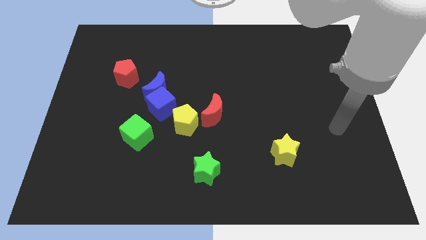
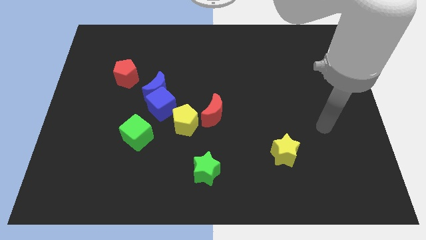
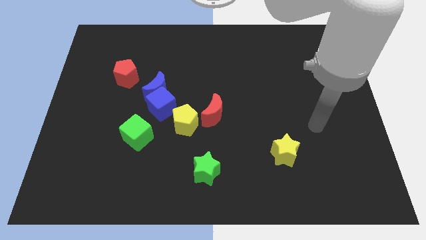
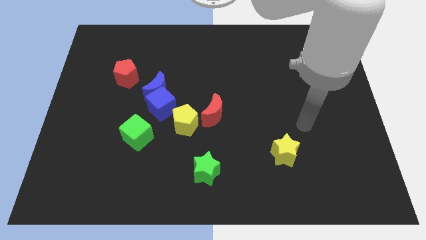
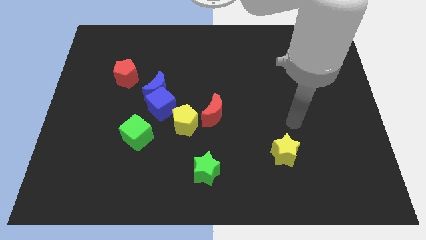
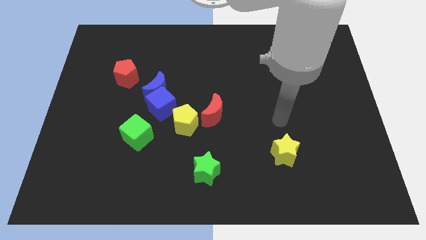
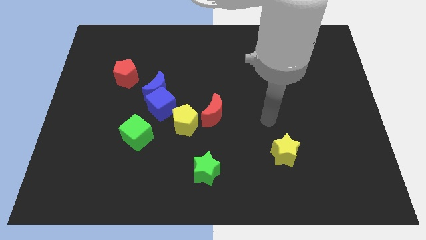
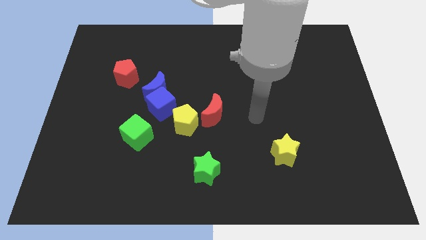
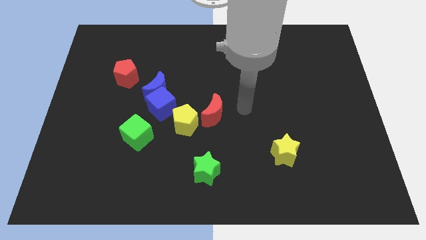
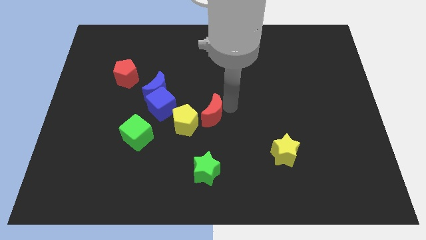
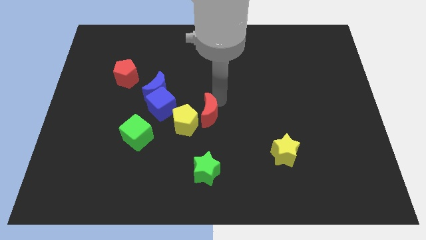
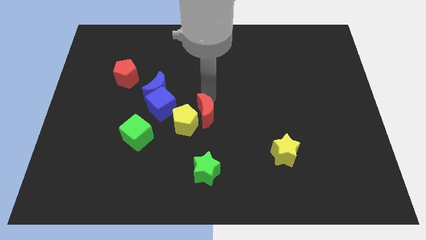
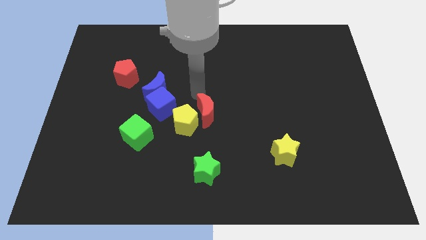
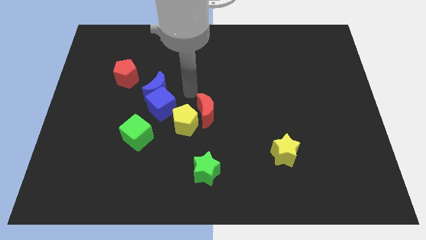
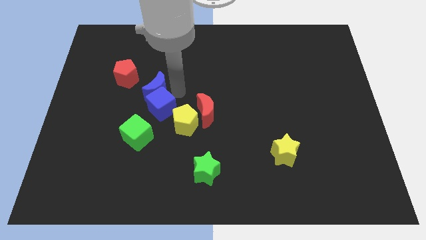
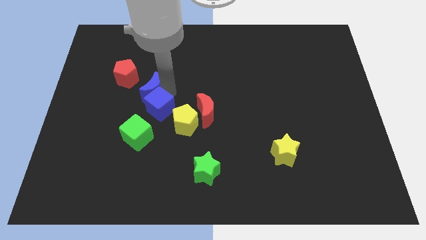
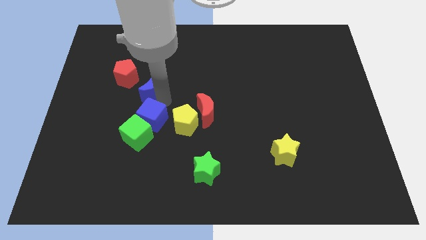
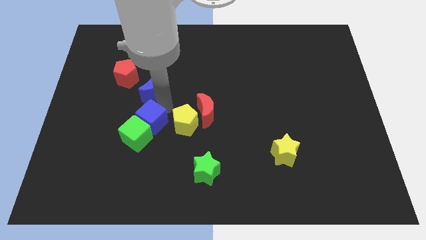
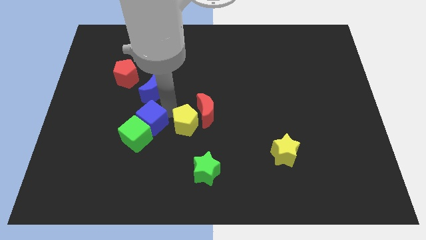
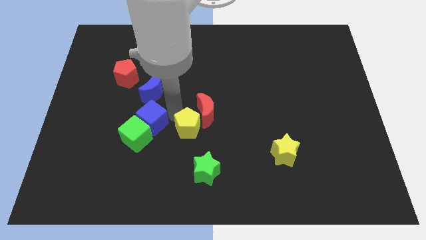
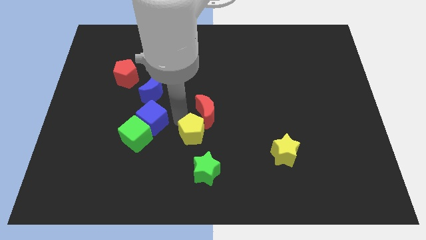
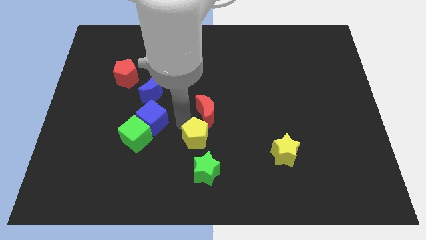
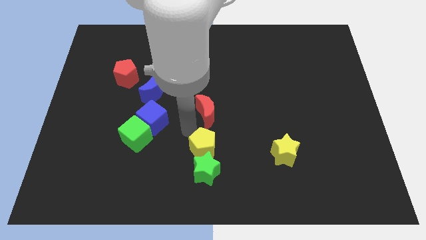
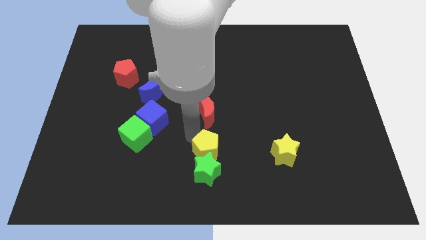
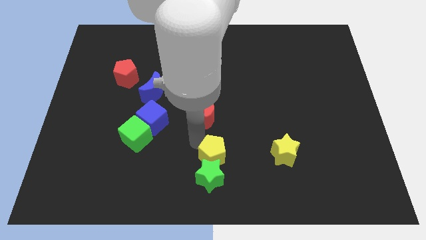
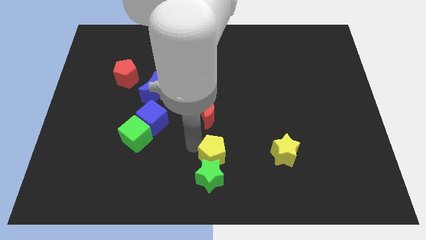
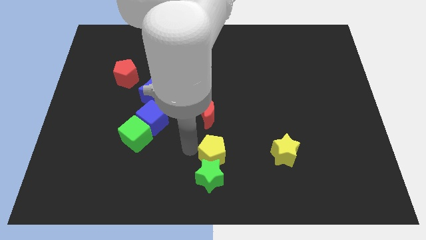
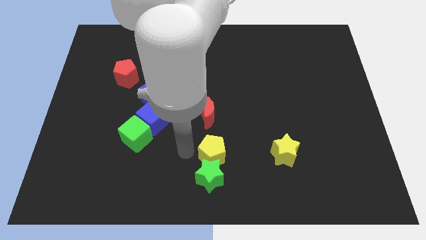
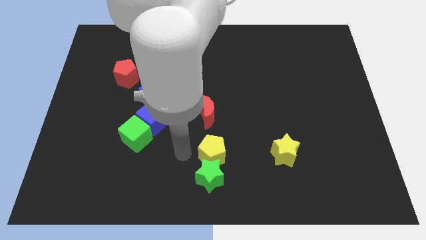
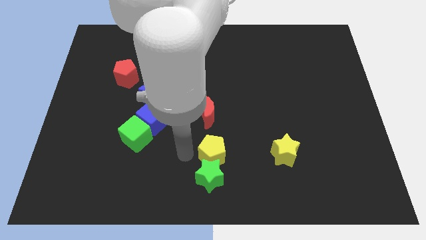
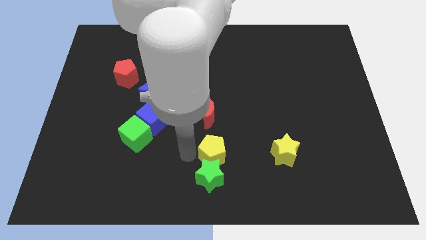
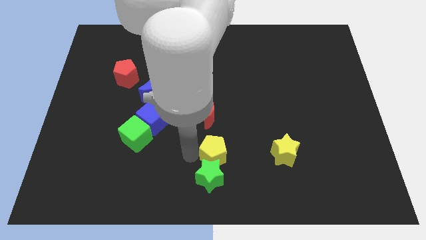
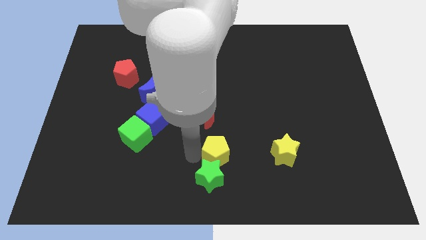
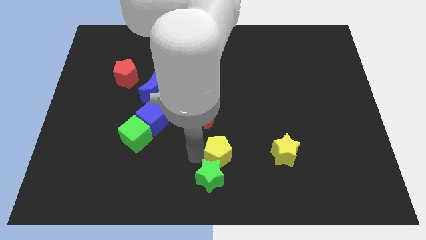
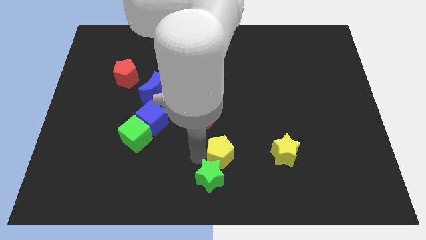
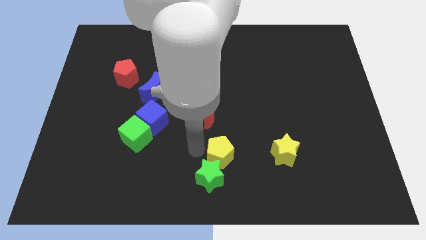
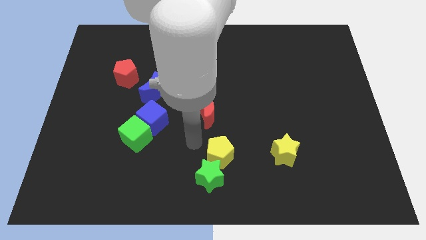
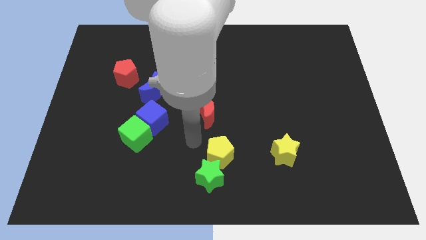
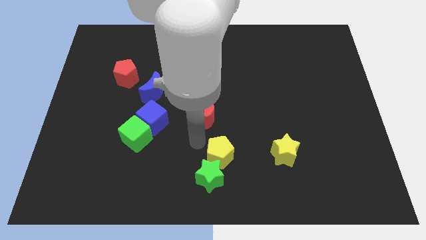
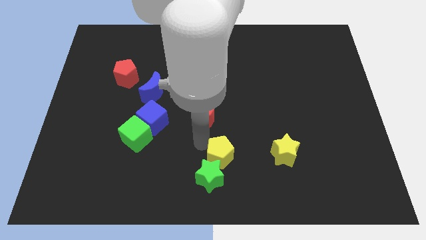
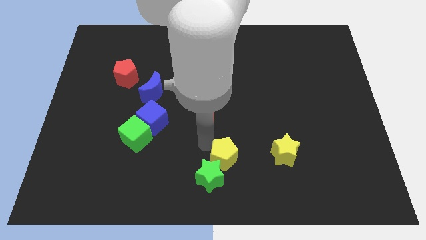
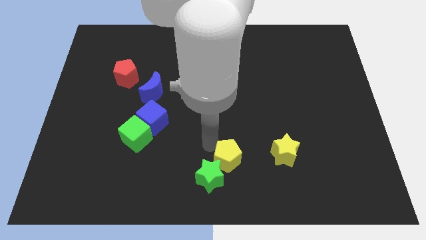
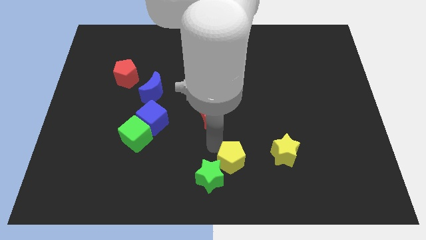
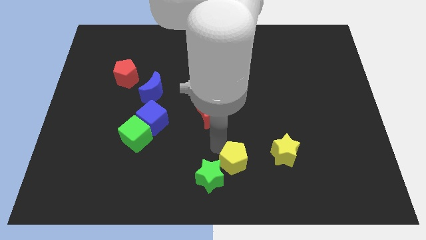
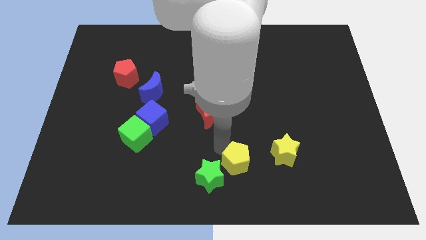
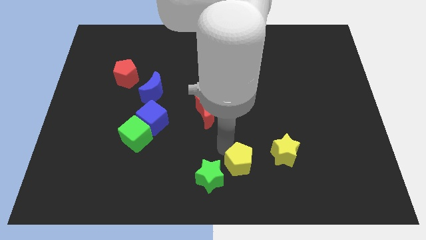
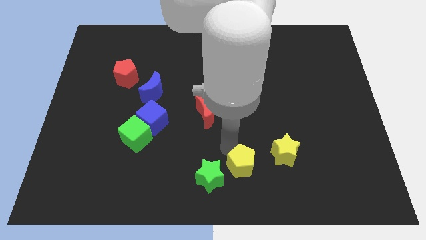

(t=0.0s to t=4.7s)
put the yellow pentagon to the bottom left of the yellow star

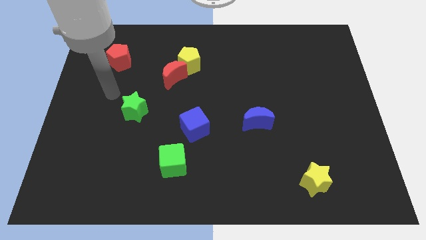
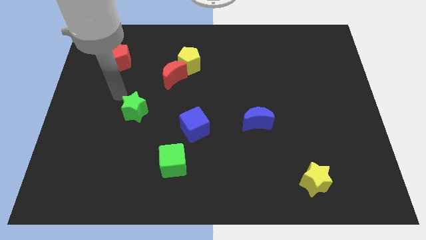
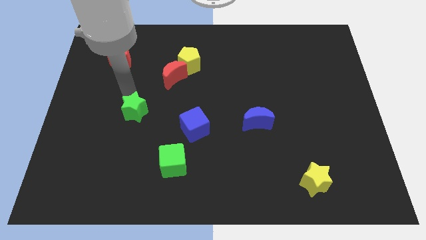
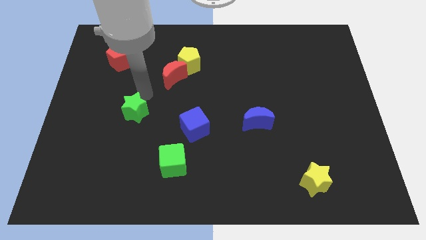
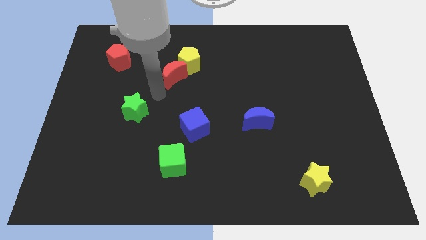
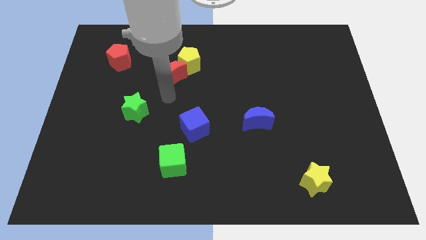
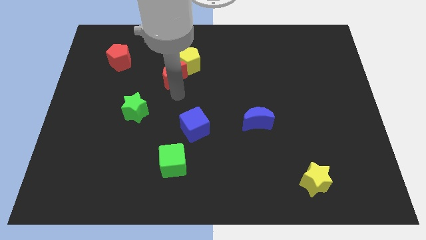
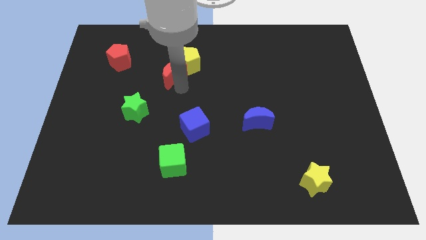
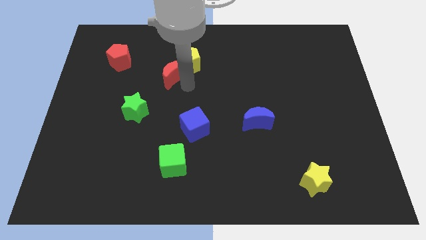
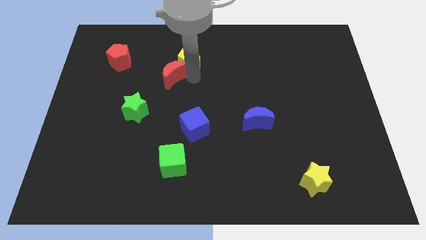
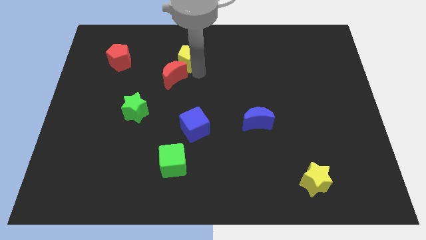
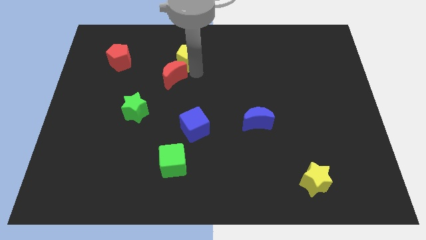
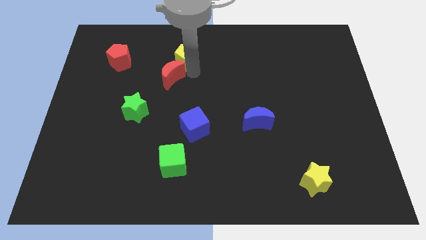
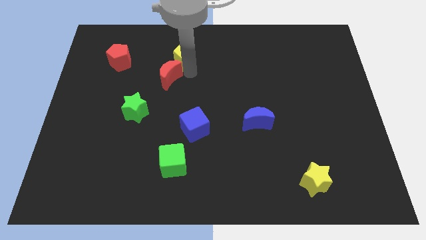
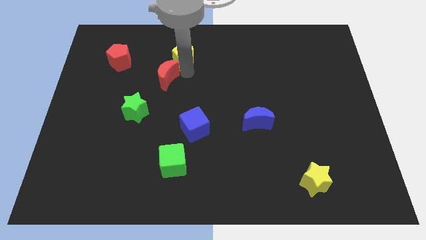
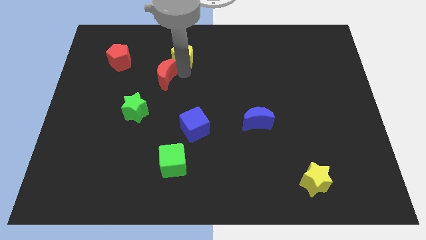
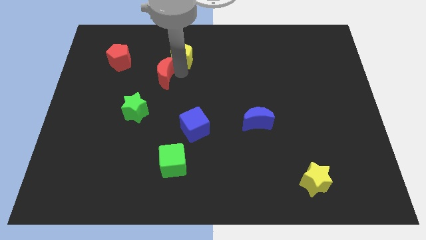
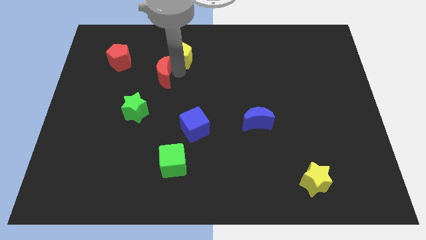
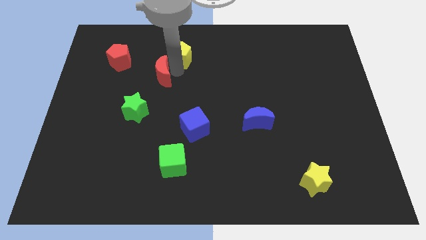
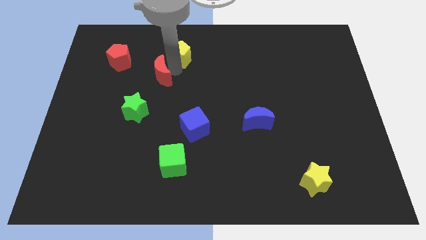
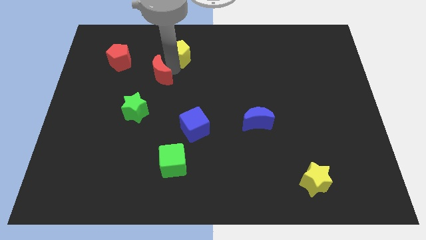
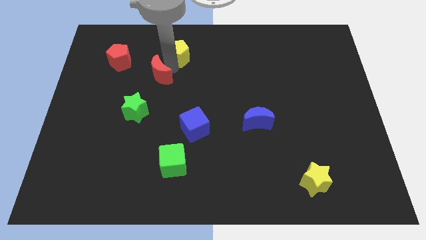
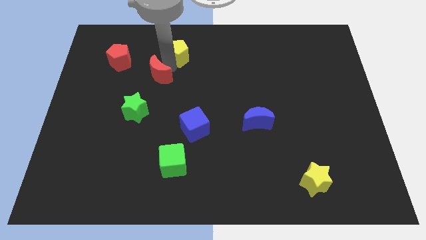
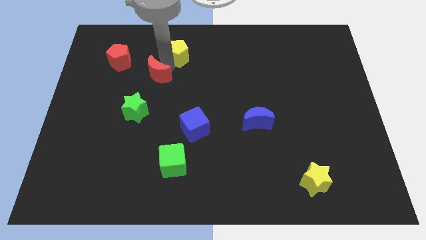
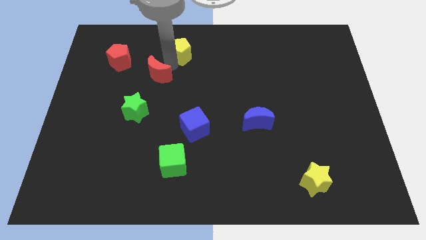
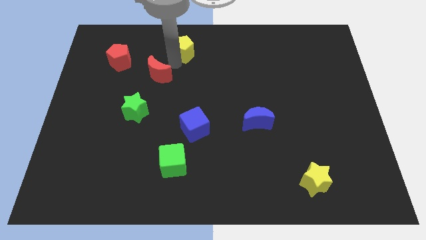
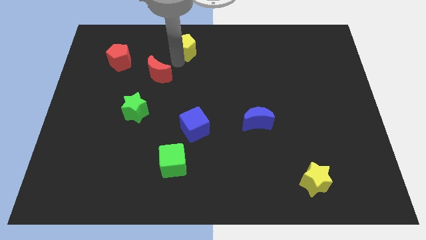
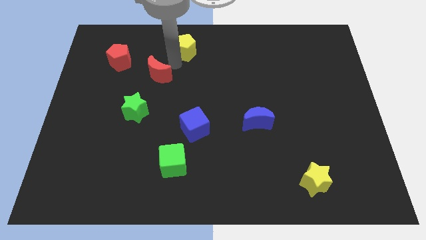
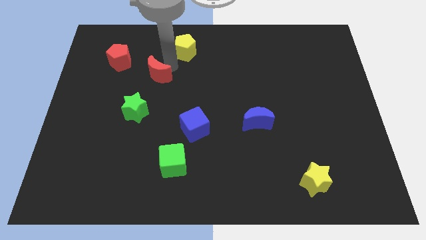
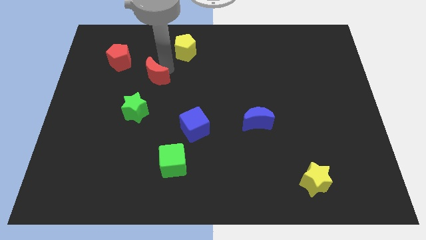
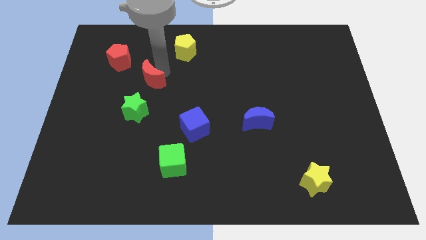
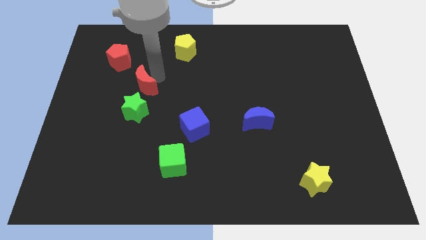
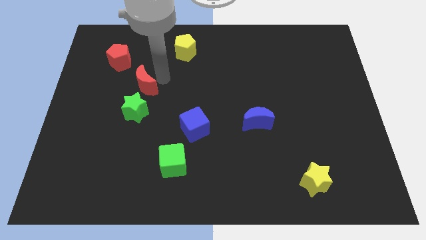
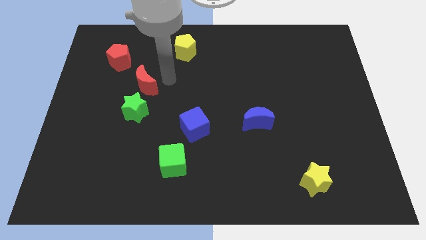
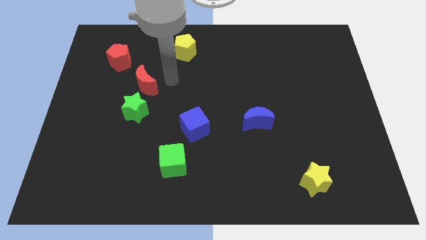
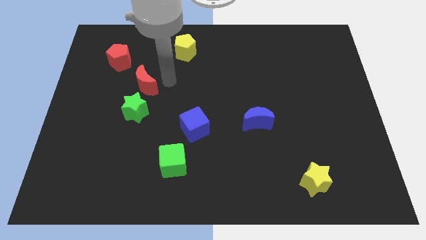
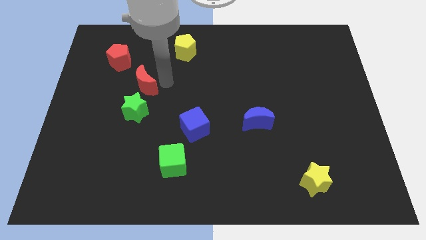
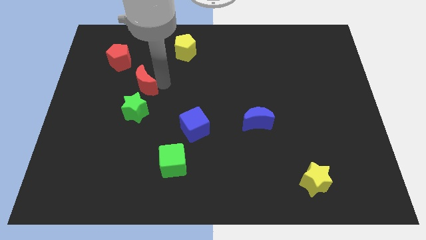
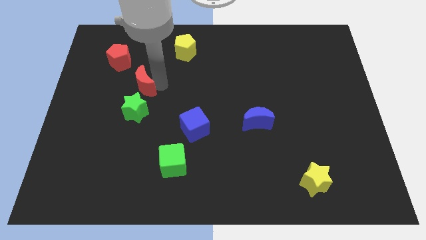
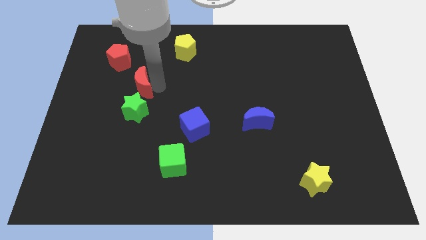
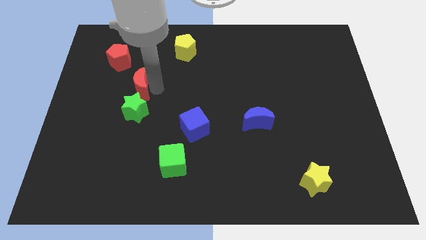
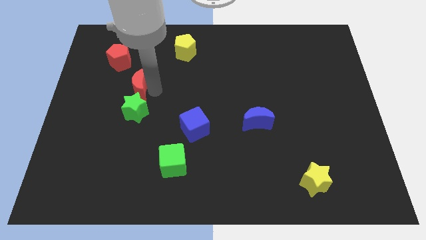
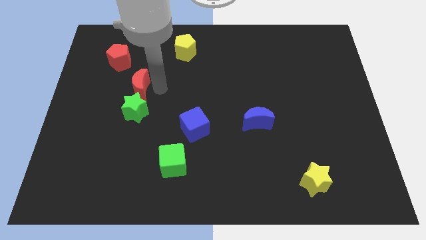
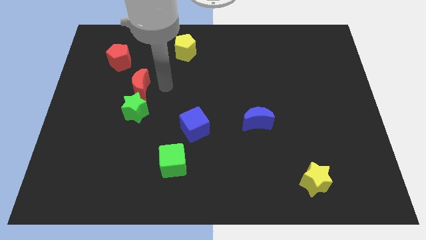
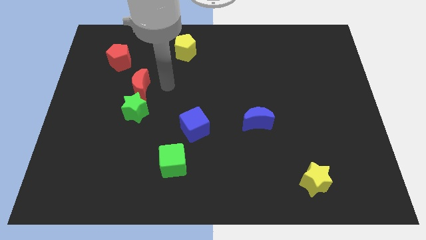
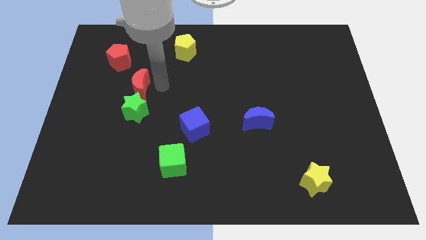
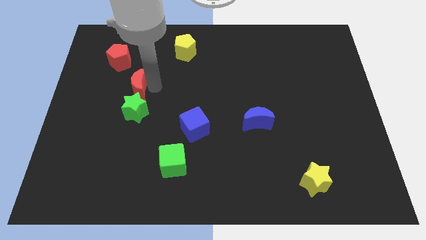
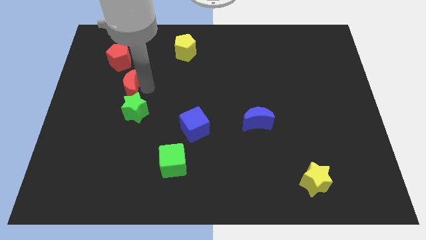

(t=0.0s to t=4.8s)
slide the red moon to the bottom side of the red pentagon
